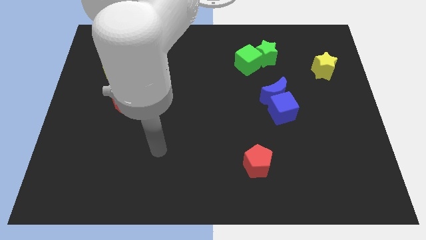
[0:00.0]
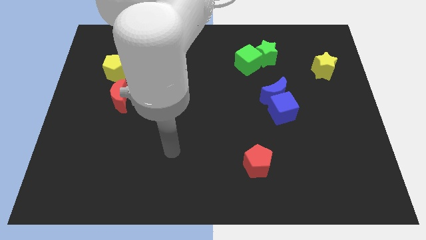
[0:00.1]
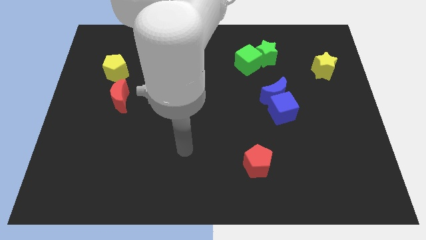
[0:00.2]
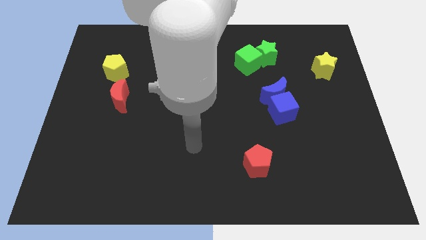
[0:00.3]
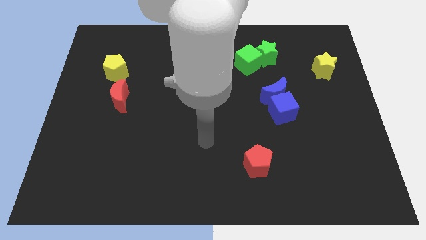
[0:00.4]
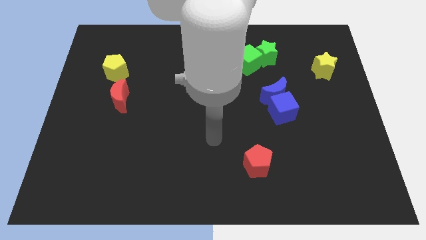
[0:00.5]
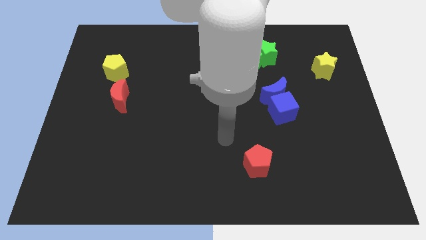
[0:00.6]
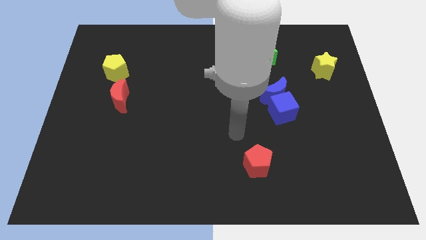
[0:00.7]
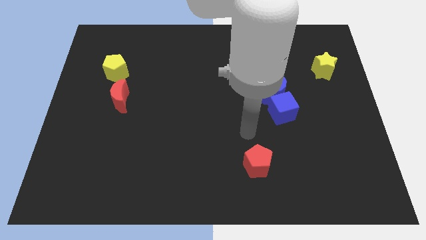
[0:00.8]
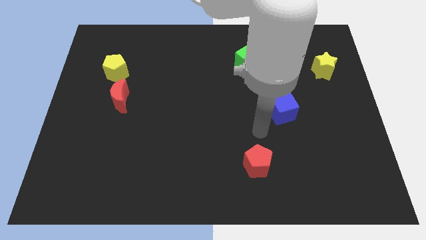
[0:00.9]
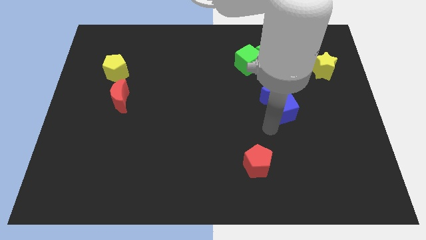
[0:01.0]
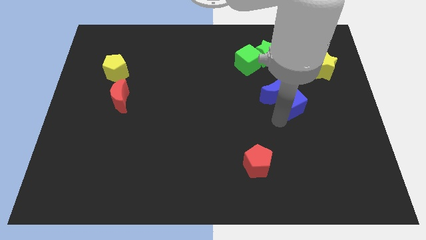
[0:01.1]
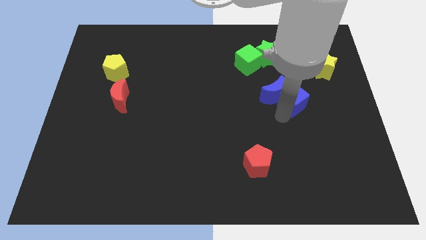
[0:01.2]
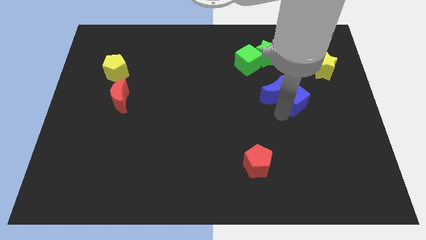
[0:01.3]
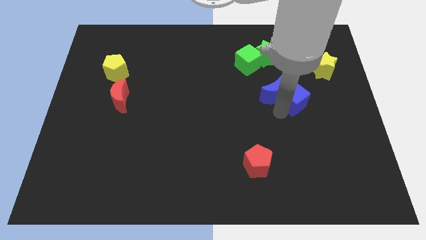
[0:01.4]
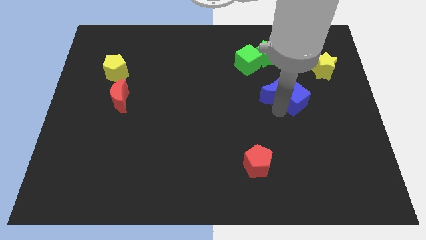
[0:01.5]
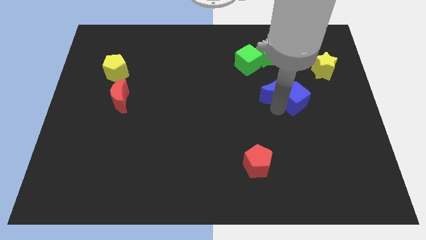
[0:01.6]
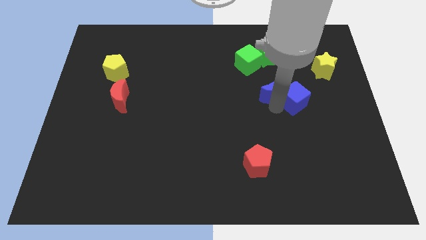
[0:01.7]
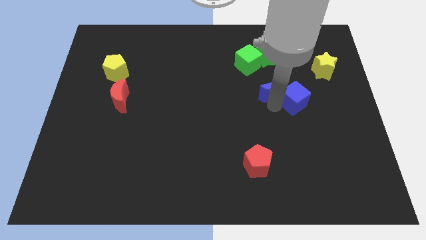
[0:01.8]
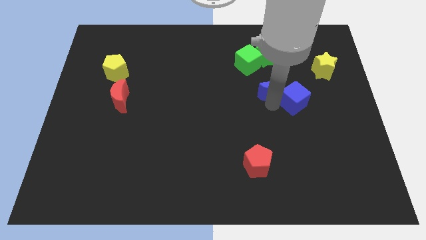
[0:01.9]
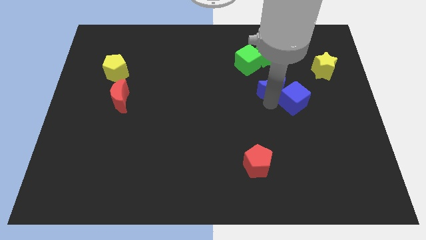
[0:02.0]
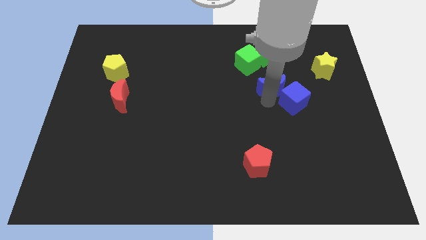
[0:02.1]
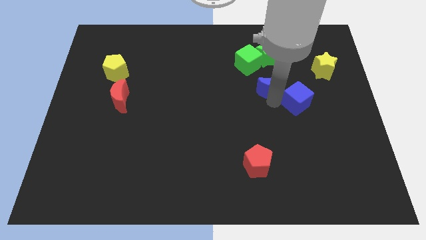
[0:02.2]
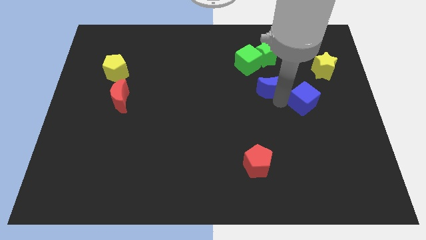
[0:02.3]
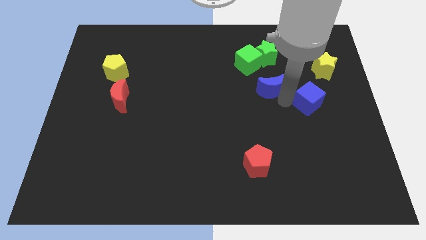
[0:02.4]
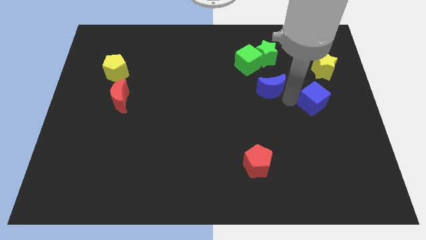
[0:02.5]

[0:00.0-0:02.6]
move the blue moon away from the blue cube

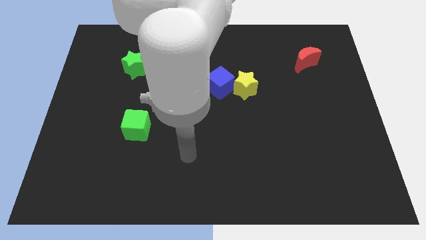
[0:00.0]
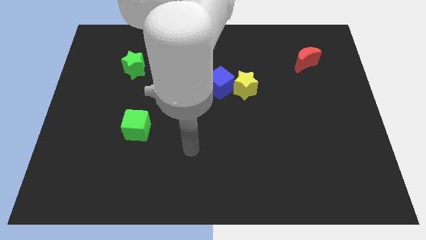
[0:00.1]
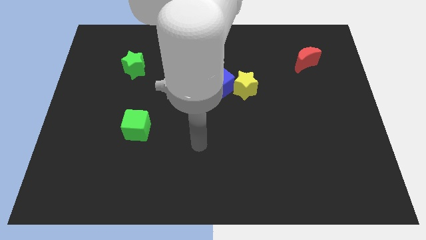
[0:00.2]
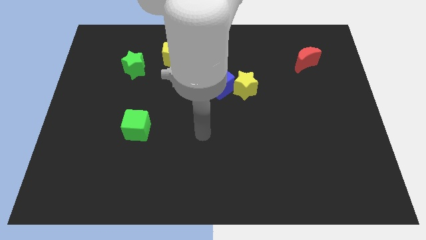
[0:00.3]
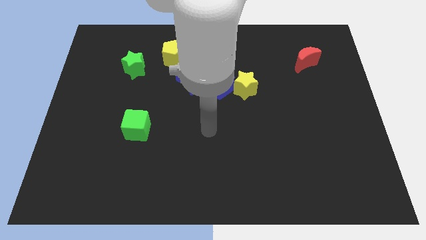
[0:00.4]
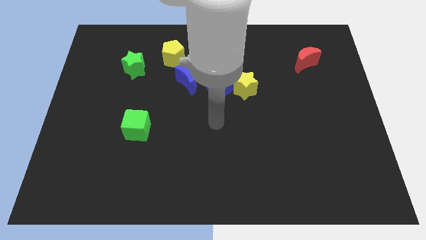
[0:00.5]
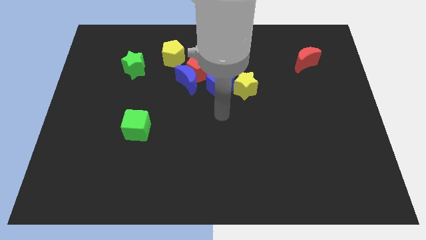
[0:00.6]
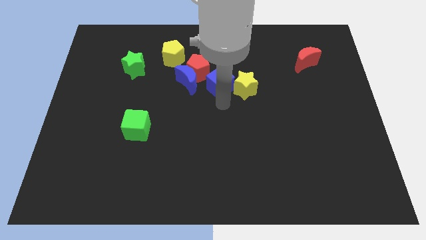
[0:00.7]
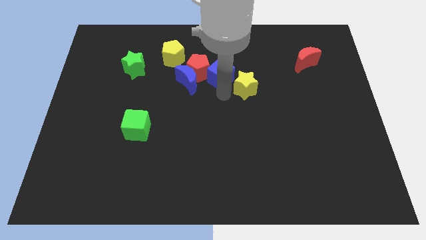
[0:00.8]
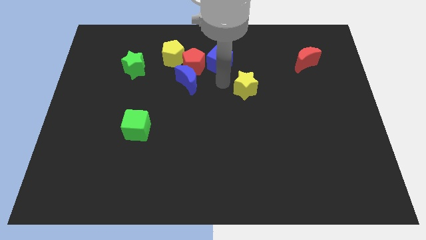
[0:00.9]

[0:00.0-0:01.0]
separate the yellow star from the blue cube

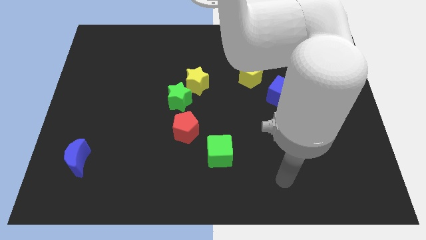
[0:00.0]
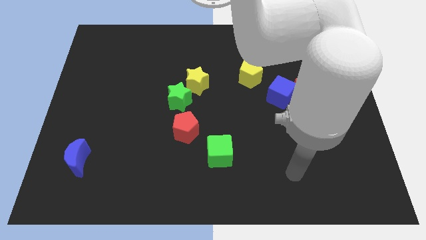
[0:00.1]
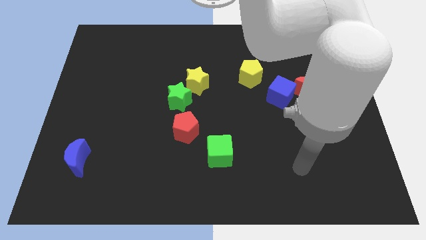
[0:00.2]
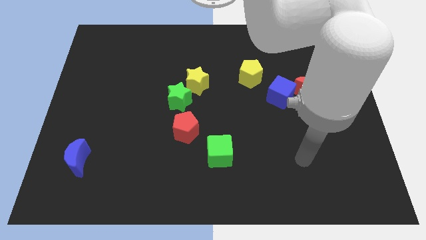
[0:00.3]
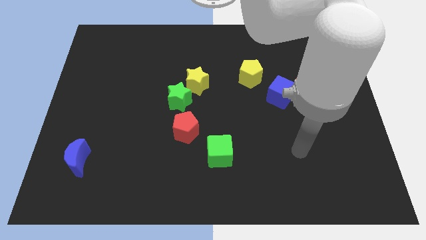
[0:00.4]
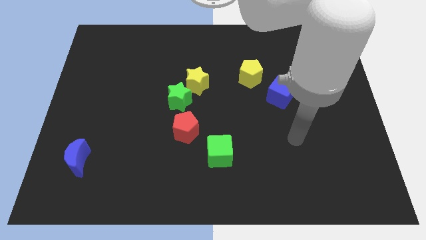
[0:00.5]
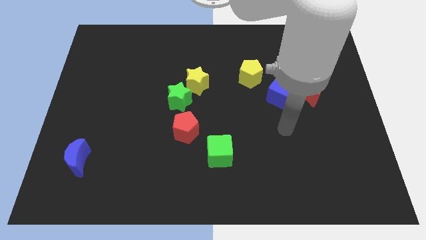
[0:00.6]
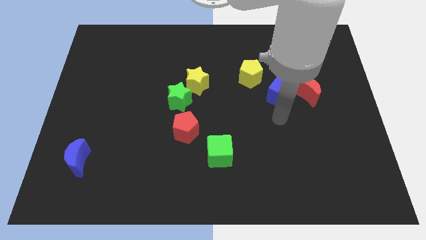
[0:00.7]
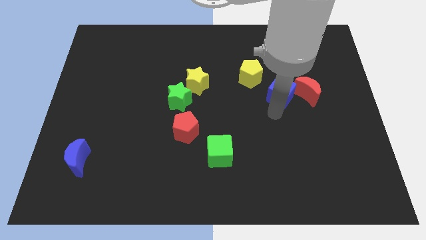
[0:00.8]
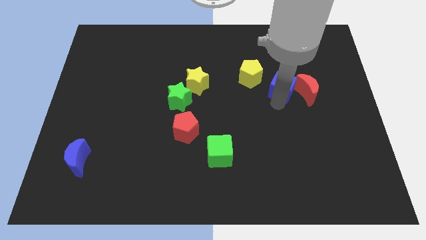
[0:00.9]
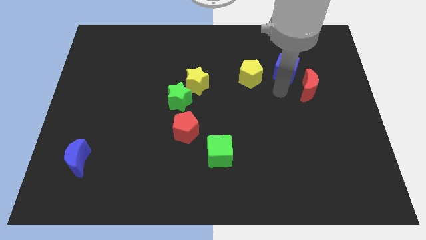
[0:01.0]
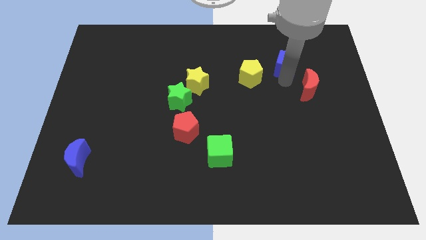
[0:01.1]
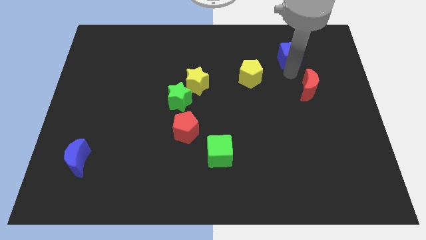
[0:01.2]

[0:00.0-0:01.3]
move the red moon away from the blue cube

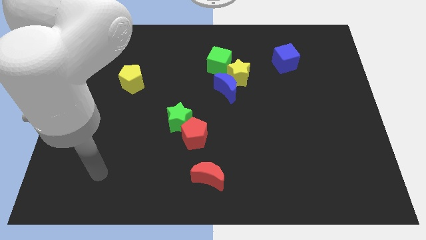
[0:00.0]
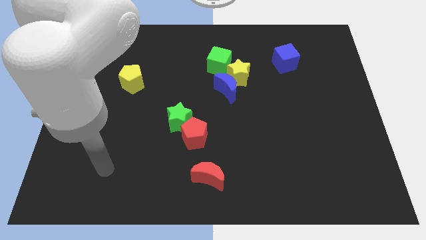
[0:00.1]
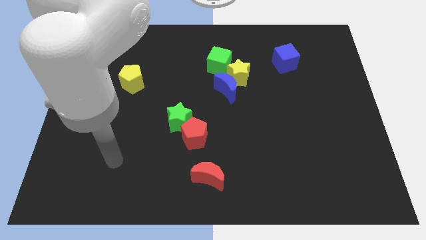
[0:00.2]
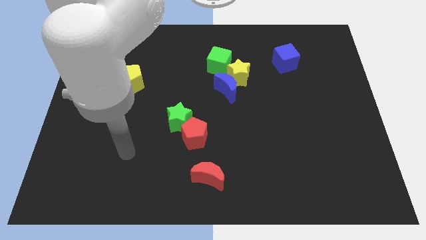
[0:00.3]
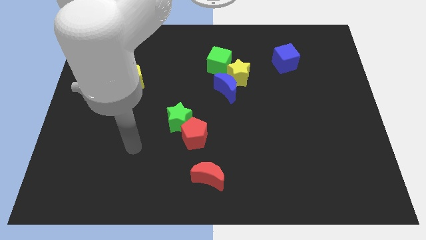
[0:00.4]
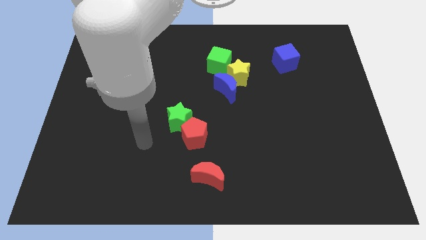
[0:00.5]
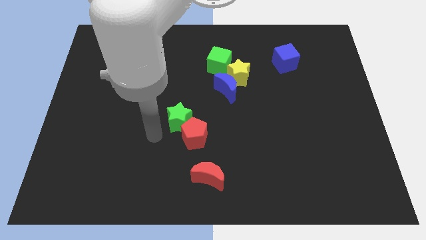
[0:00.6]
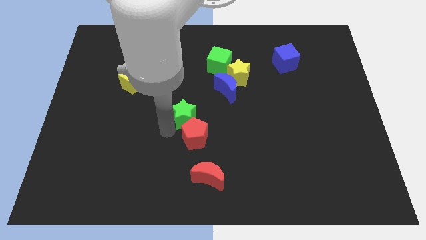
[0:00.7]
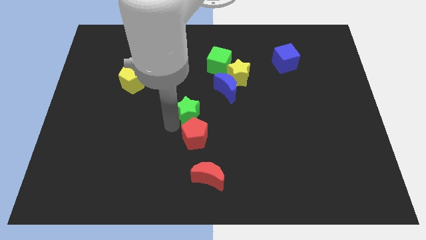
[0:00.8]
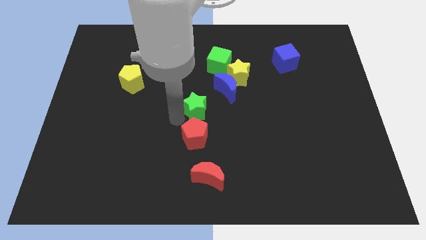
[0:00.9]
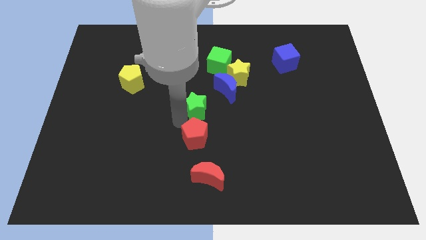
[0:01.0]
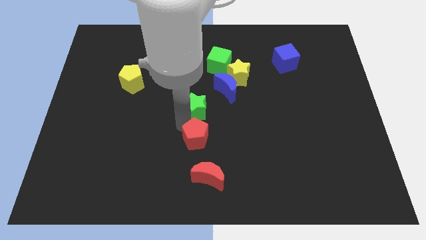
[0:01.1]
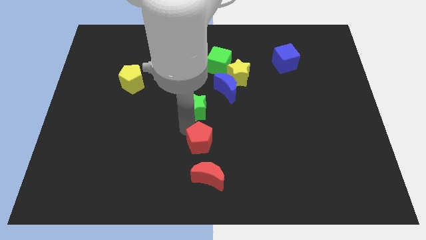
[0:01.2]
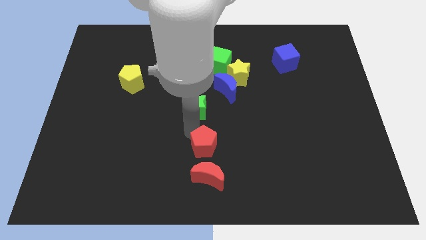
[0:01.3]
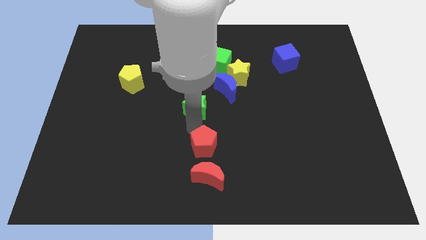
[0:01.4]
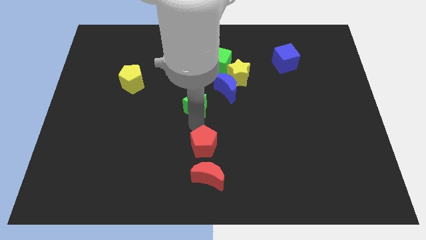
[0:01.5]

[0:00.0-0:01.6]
pull the red pentagon apart from the green star

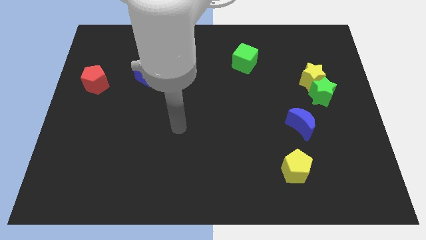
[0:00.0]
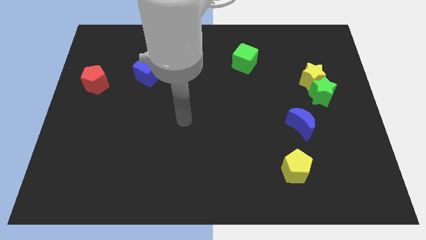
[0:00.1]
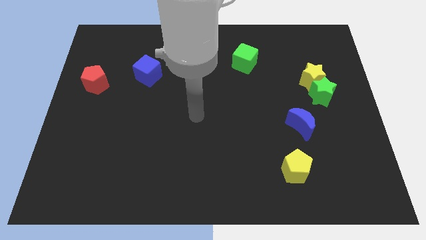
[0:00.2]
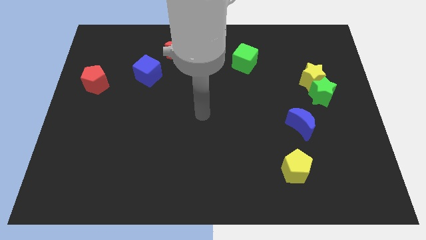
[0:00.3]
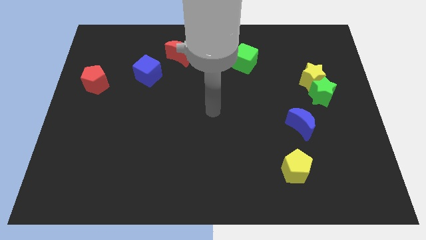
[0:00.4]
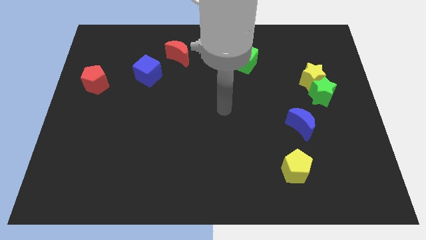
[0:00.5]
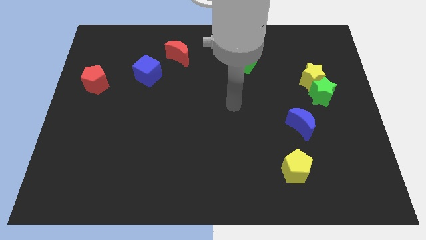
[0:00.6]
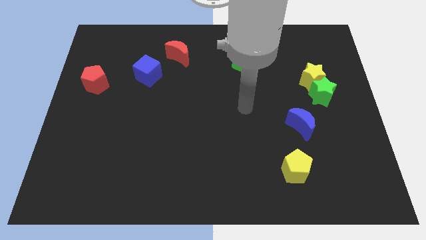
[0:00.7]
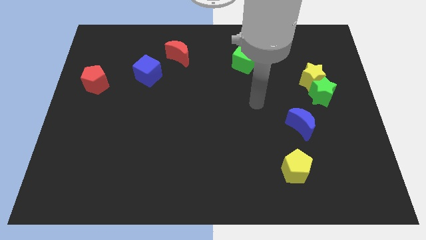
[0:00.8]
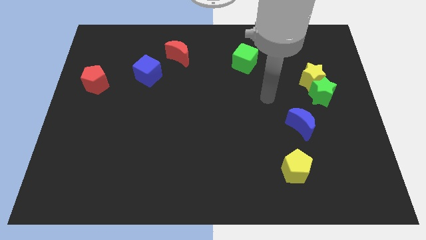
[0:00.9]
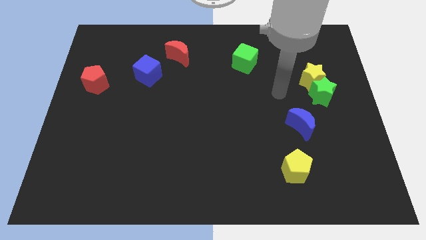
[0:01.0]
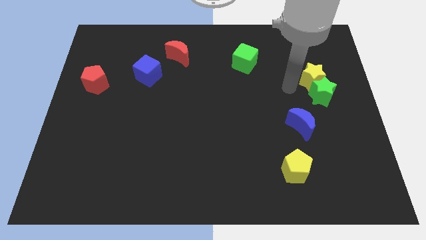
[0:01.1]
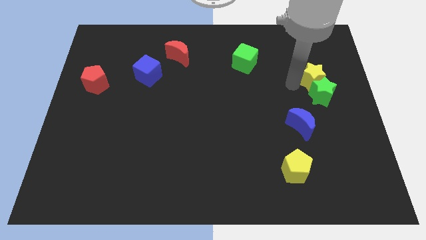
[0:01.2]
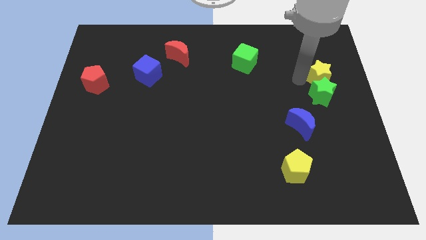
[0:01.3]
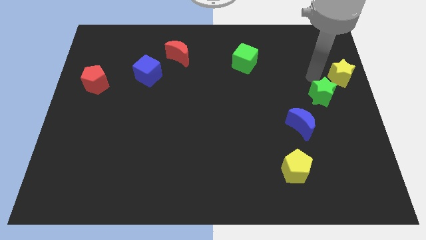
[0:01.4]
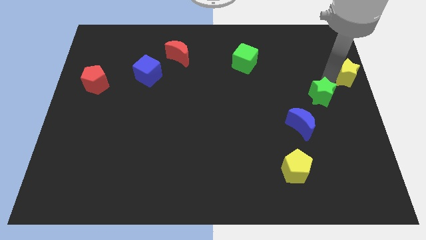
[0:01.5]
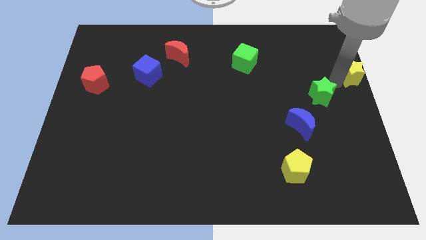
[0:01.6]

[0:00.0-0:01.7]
move the green star away from the yellow star

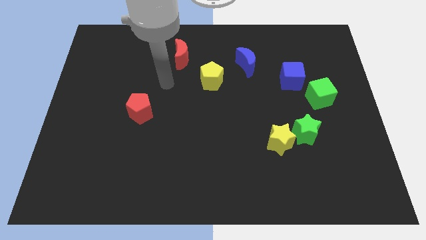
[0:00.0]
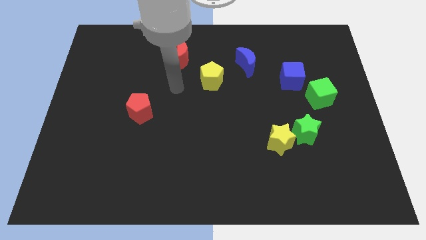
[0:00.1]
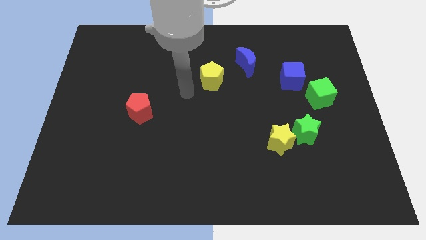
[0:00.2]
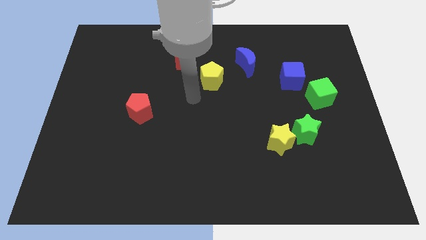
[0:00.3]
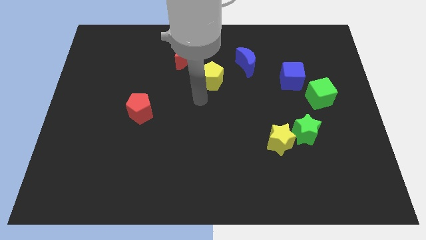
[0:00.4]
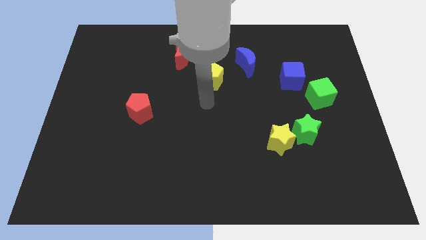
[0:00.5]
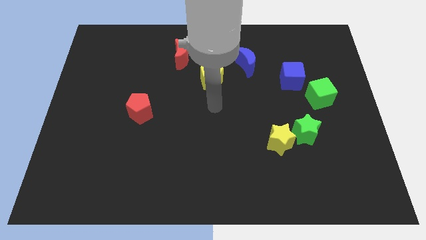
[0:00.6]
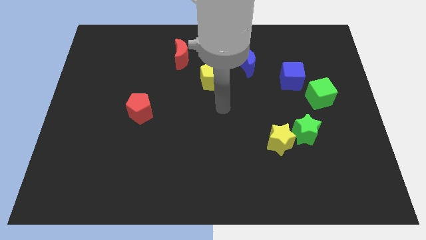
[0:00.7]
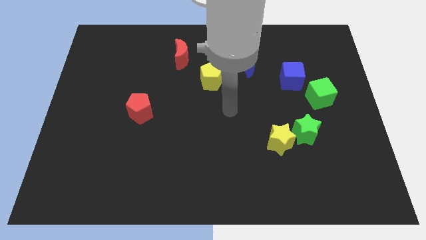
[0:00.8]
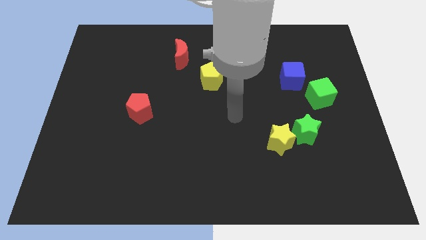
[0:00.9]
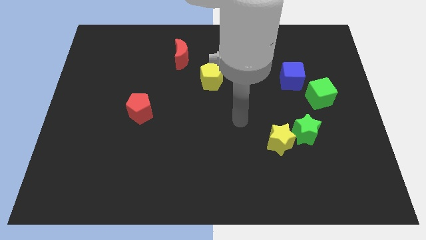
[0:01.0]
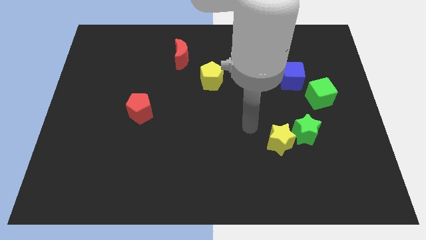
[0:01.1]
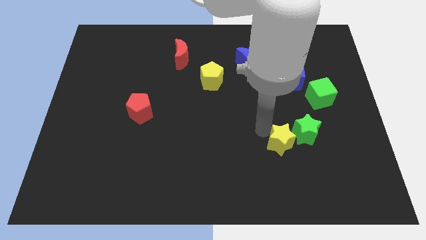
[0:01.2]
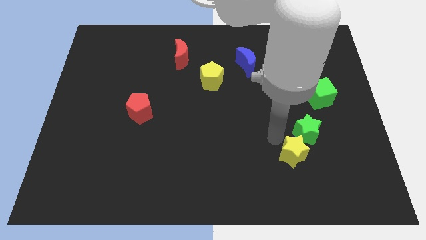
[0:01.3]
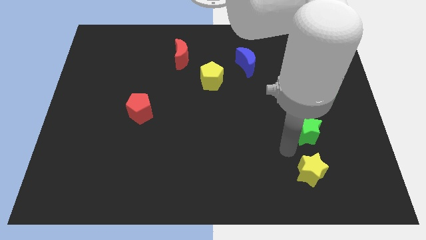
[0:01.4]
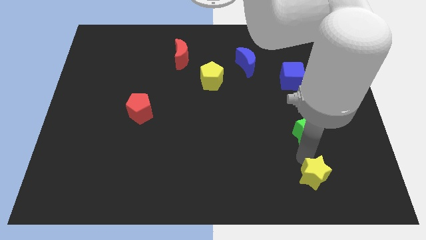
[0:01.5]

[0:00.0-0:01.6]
separate the green star from the yellow star
